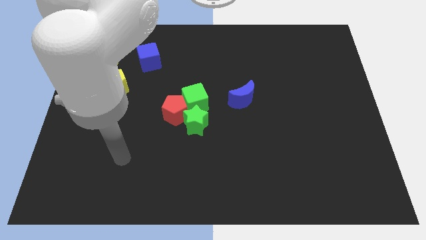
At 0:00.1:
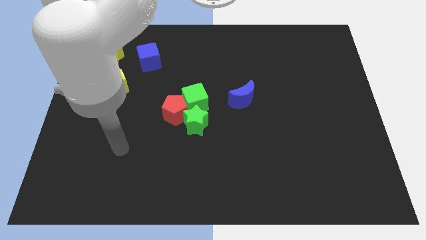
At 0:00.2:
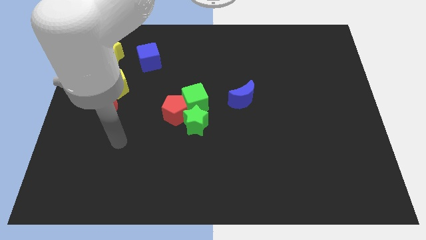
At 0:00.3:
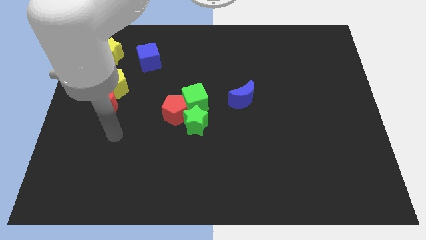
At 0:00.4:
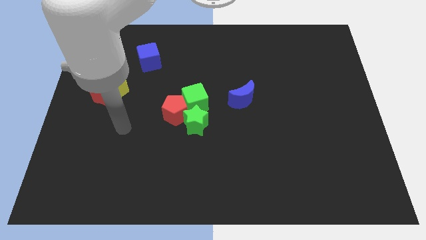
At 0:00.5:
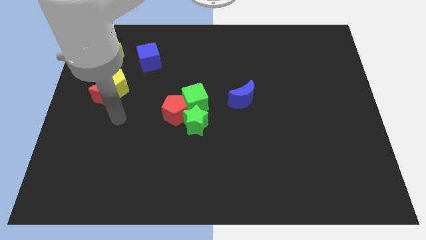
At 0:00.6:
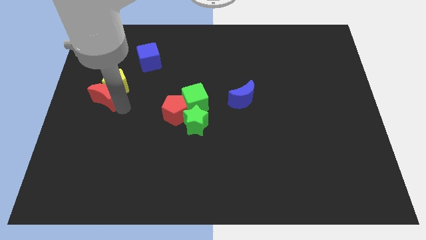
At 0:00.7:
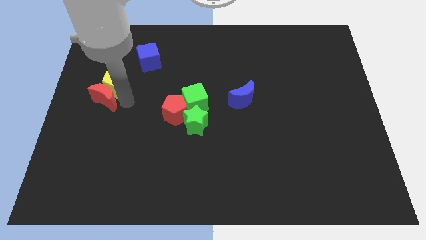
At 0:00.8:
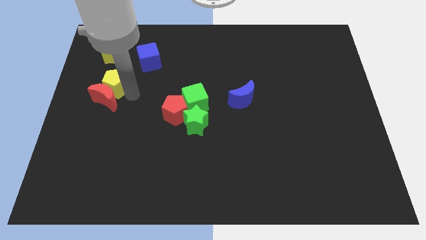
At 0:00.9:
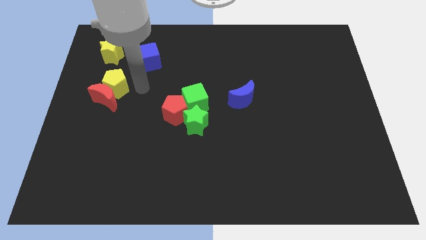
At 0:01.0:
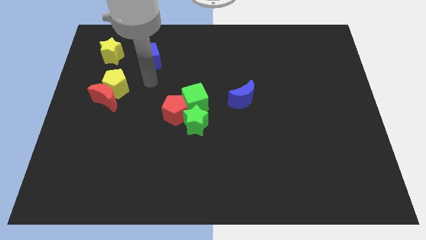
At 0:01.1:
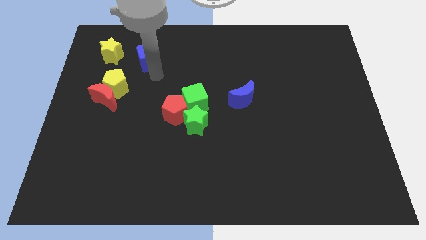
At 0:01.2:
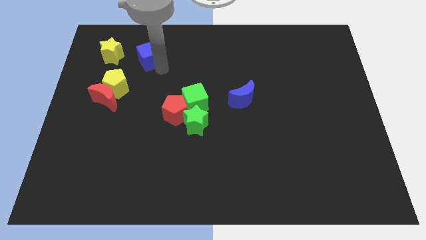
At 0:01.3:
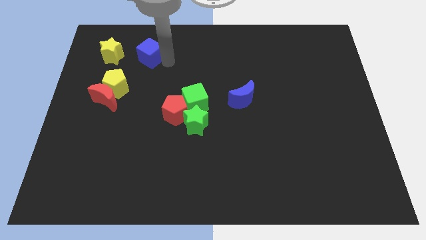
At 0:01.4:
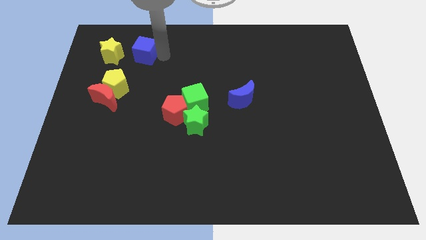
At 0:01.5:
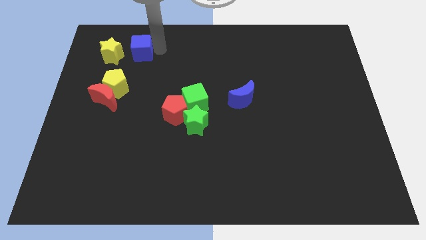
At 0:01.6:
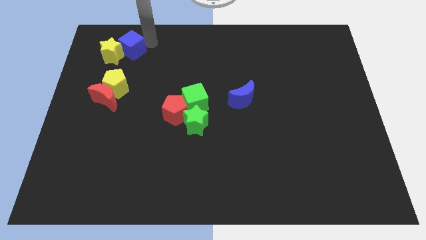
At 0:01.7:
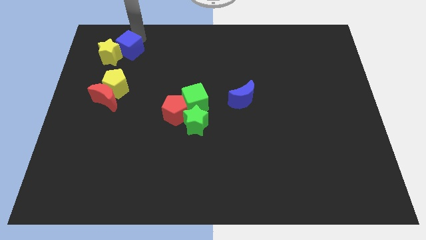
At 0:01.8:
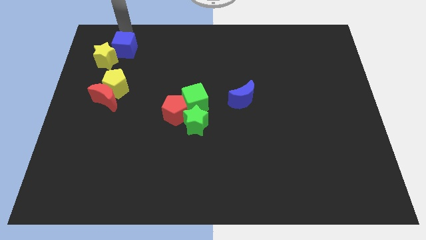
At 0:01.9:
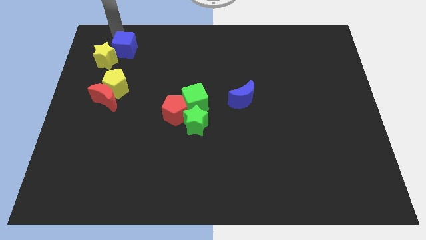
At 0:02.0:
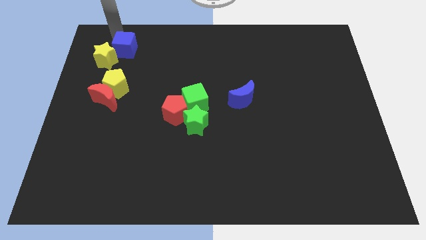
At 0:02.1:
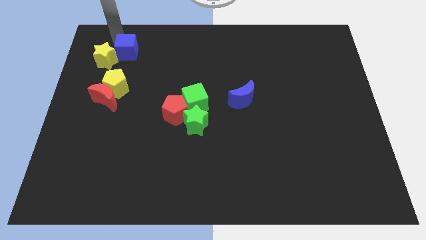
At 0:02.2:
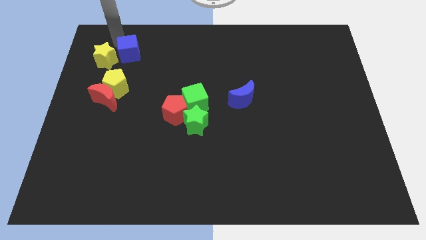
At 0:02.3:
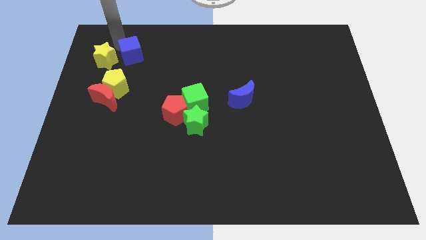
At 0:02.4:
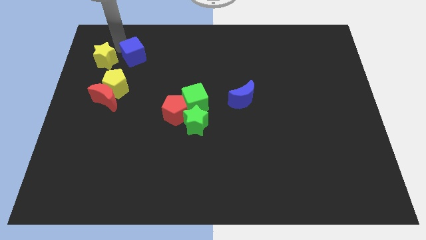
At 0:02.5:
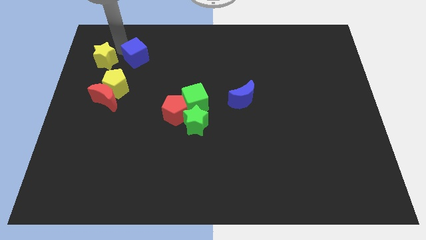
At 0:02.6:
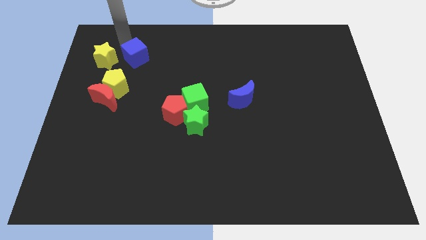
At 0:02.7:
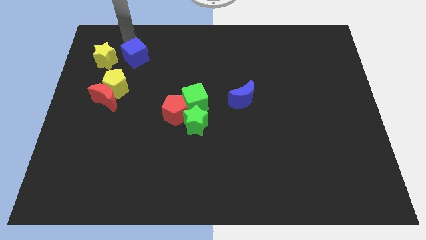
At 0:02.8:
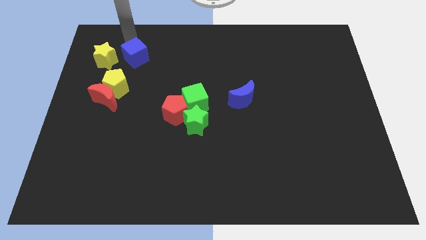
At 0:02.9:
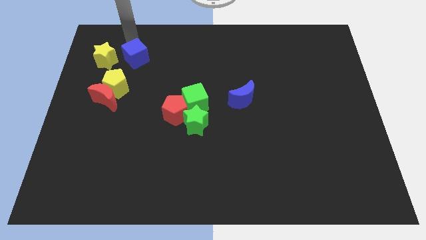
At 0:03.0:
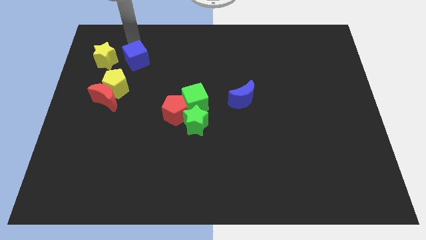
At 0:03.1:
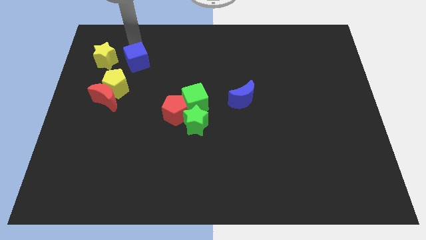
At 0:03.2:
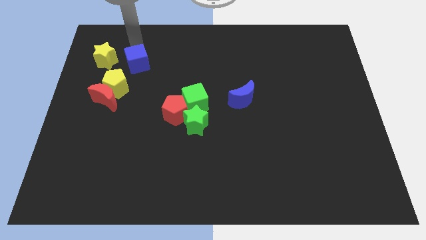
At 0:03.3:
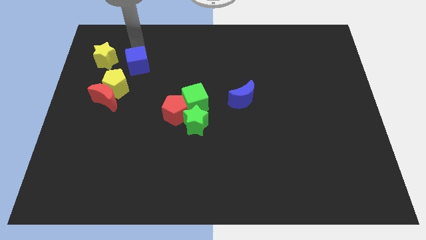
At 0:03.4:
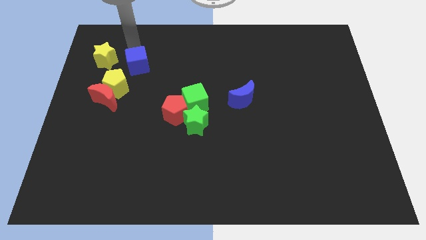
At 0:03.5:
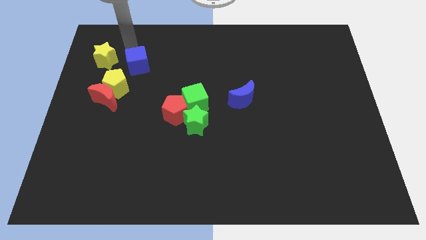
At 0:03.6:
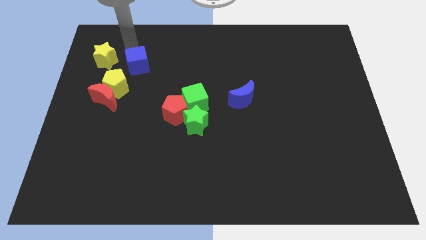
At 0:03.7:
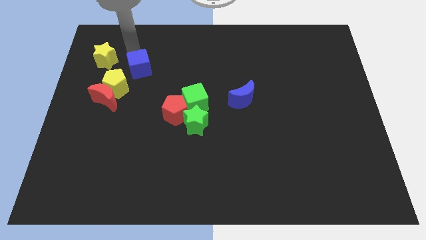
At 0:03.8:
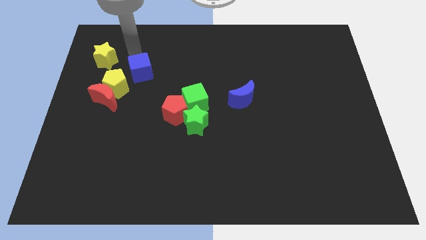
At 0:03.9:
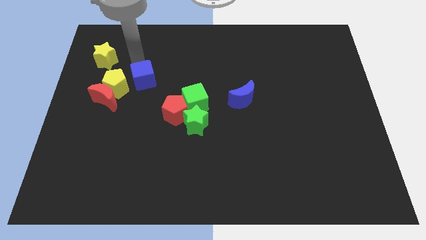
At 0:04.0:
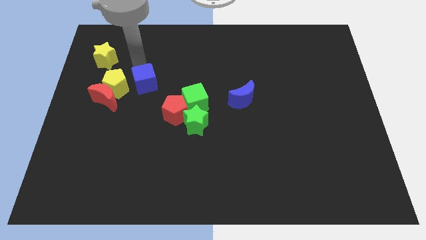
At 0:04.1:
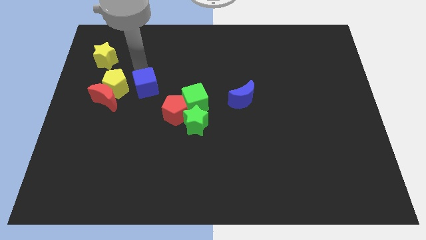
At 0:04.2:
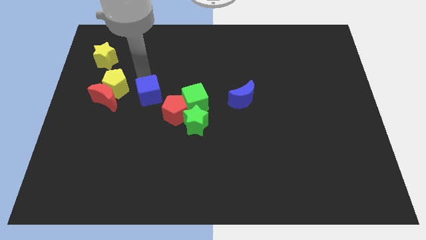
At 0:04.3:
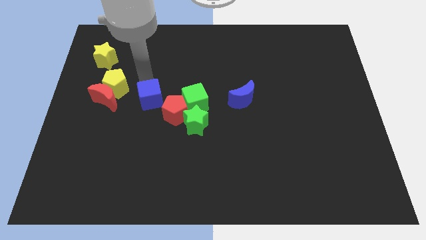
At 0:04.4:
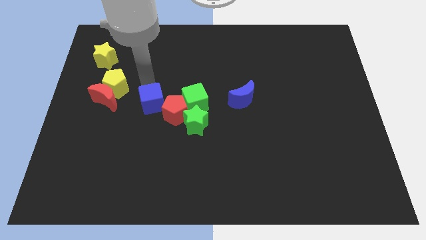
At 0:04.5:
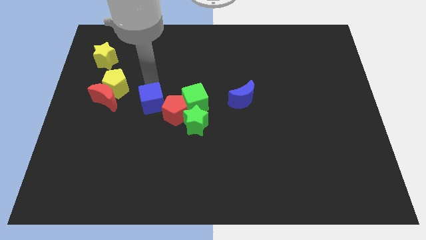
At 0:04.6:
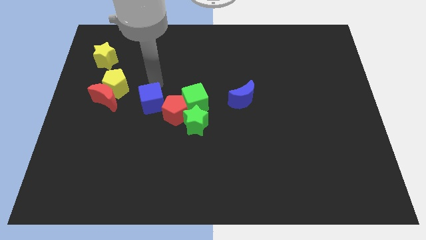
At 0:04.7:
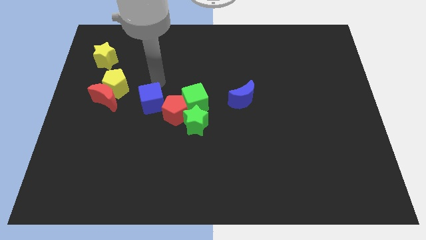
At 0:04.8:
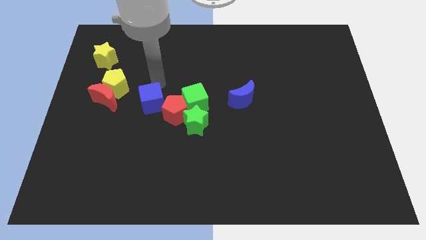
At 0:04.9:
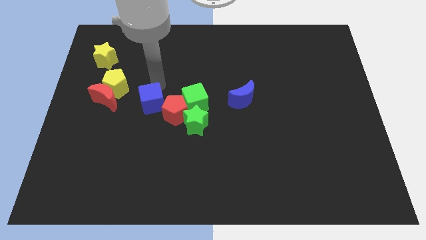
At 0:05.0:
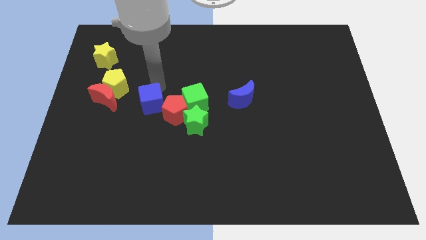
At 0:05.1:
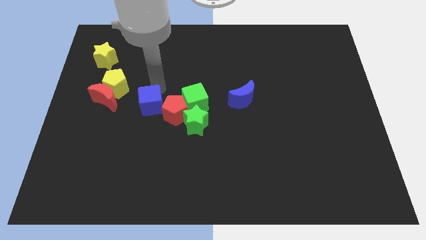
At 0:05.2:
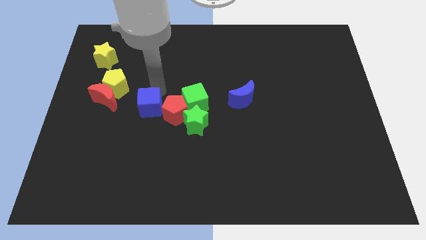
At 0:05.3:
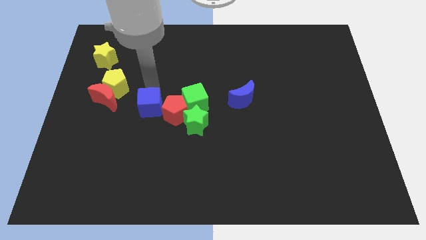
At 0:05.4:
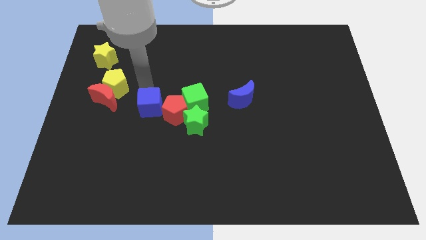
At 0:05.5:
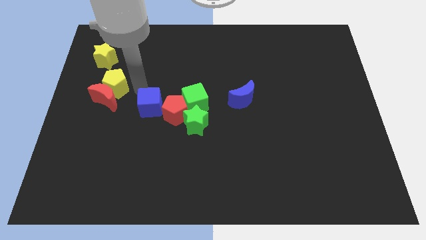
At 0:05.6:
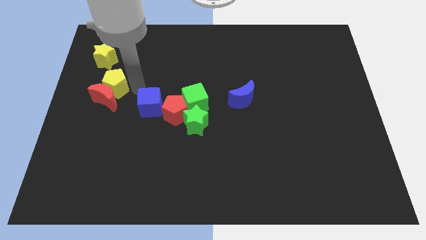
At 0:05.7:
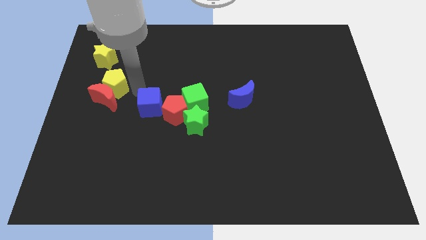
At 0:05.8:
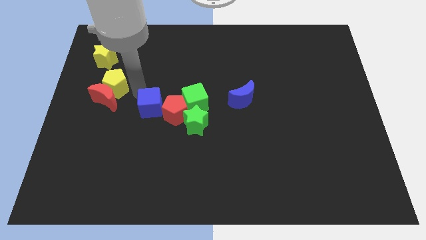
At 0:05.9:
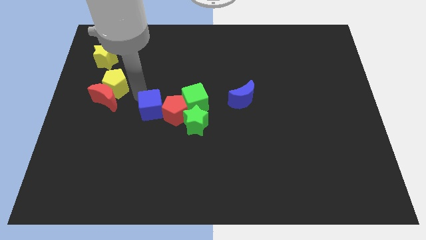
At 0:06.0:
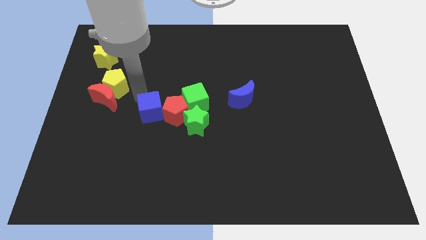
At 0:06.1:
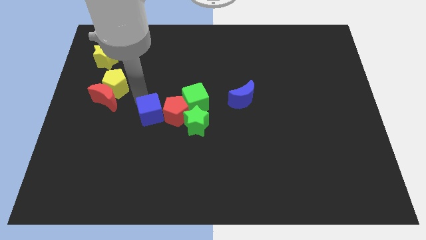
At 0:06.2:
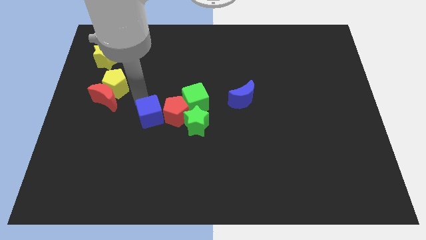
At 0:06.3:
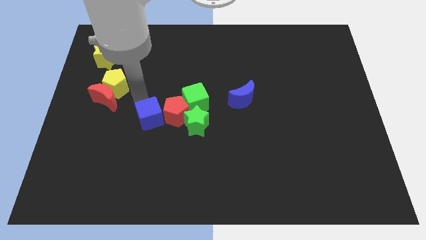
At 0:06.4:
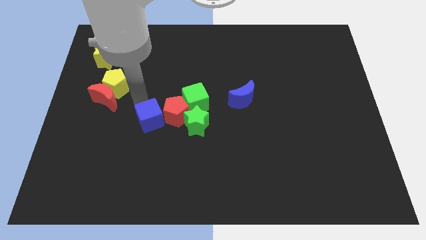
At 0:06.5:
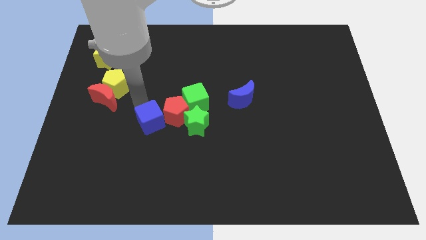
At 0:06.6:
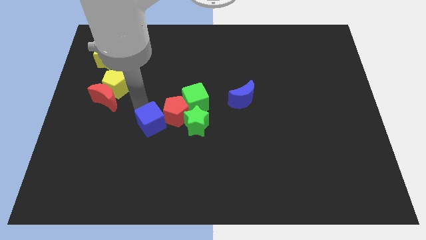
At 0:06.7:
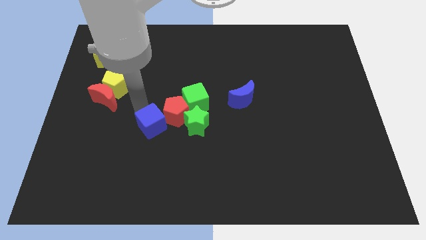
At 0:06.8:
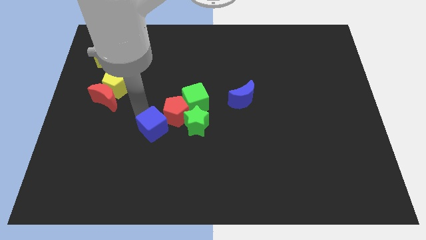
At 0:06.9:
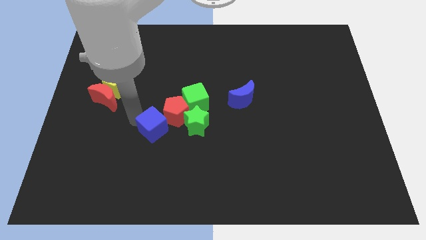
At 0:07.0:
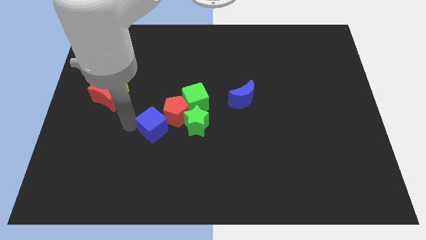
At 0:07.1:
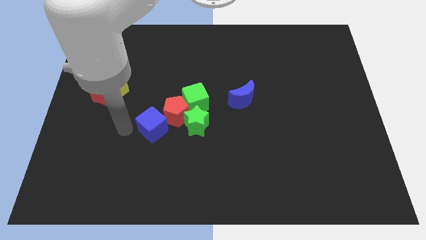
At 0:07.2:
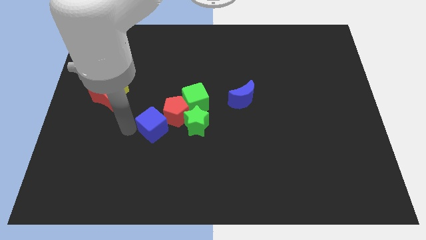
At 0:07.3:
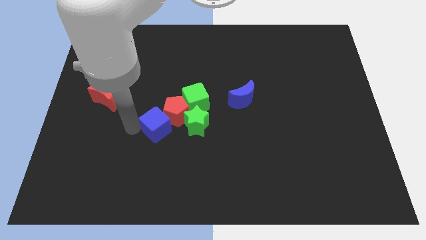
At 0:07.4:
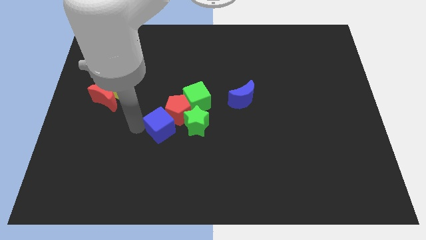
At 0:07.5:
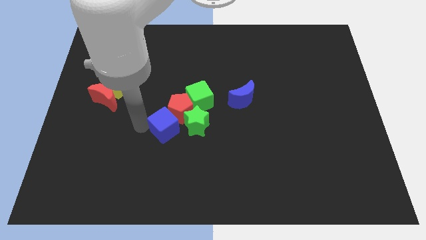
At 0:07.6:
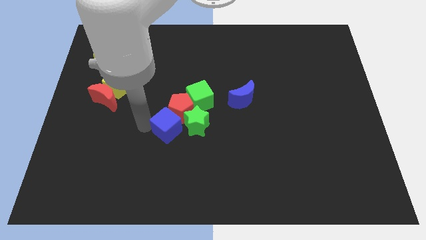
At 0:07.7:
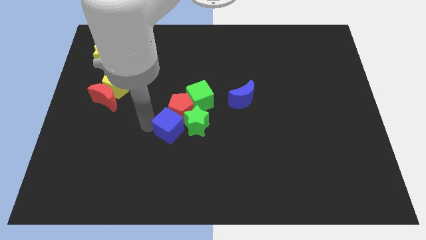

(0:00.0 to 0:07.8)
slide the blue cube towards the green star

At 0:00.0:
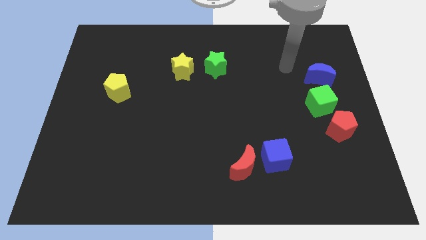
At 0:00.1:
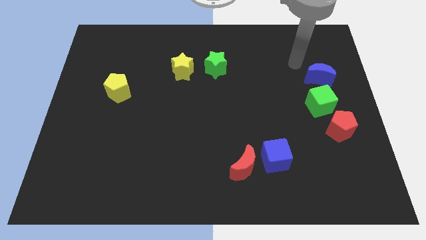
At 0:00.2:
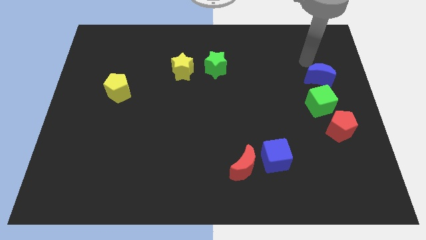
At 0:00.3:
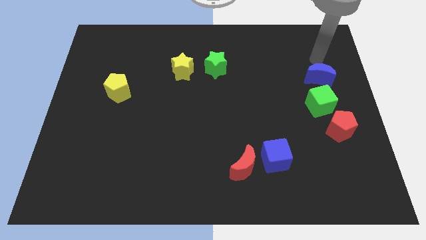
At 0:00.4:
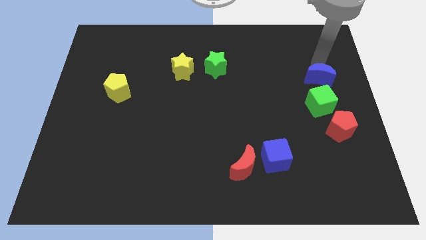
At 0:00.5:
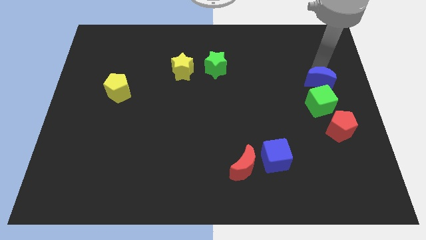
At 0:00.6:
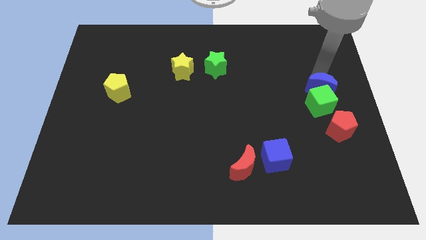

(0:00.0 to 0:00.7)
push the blue moon to the green cube
